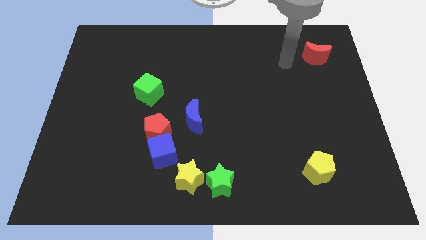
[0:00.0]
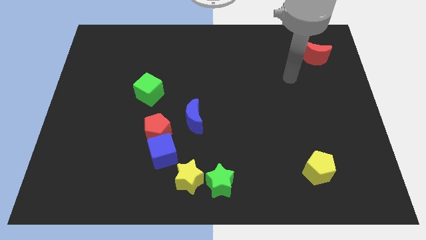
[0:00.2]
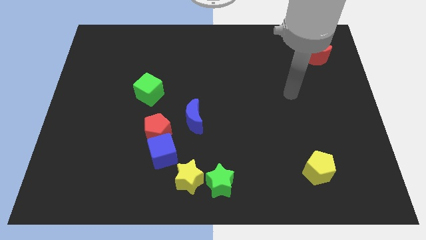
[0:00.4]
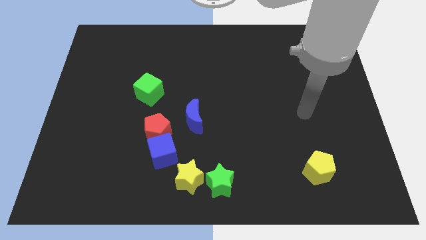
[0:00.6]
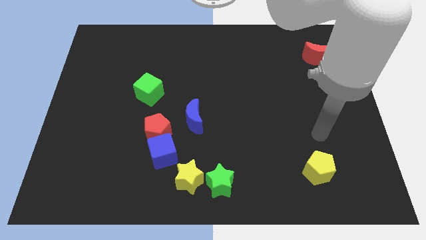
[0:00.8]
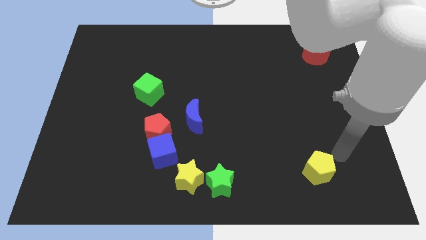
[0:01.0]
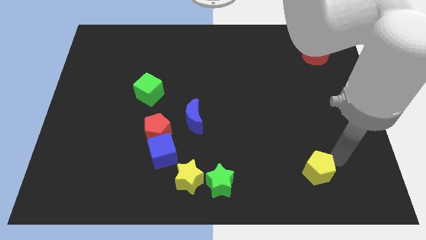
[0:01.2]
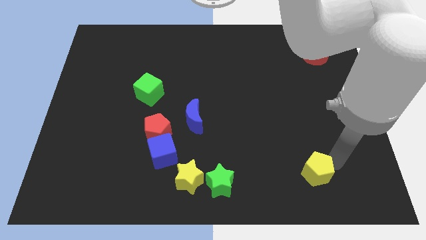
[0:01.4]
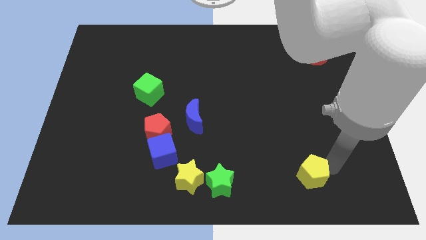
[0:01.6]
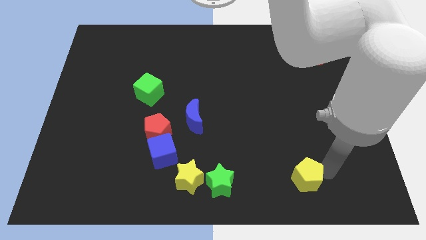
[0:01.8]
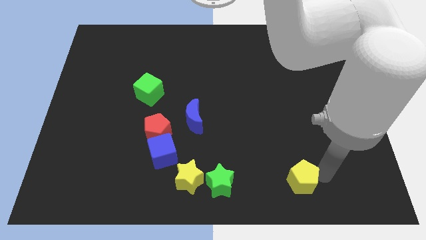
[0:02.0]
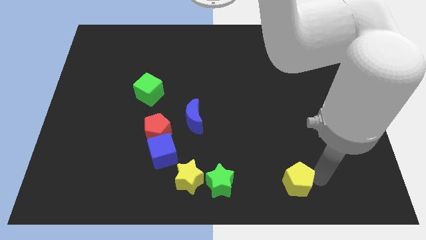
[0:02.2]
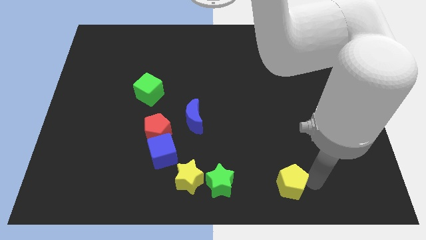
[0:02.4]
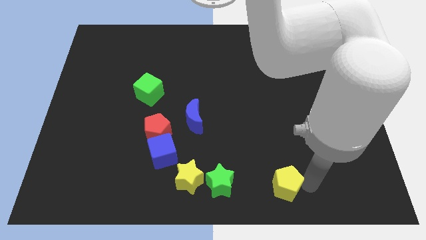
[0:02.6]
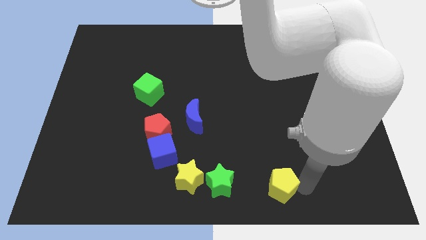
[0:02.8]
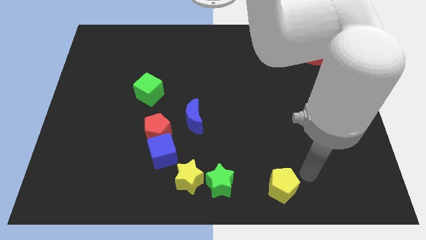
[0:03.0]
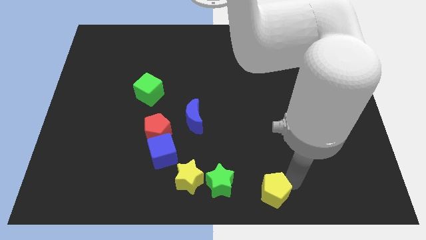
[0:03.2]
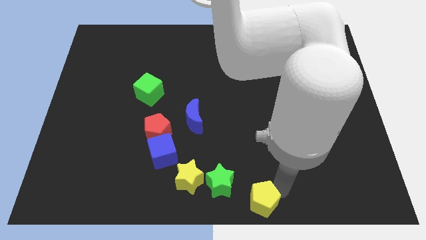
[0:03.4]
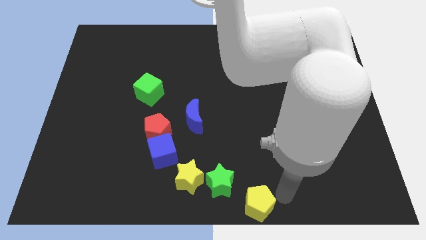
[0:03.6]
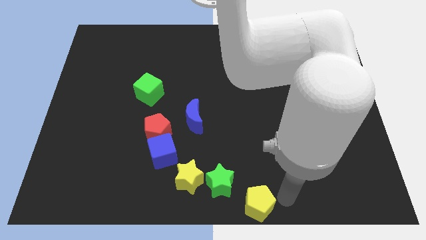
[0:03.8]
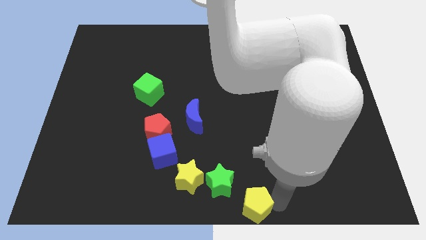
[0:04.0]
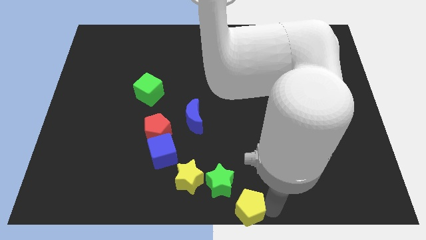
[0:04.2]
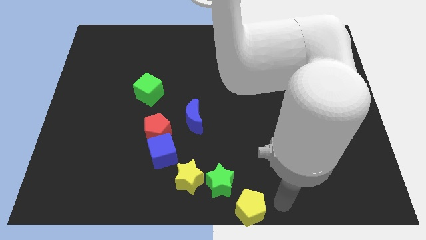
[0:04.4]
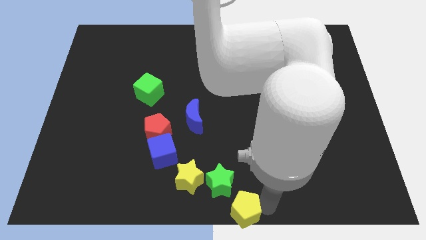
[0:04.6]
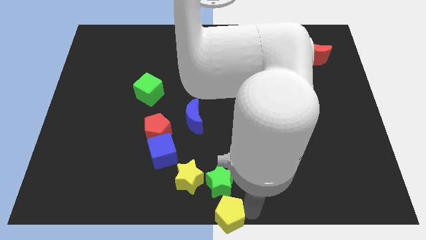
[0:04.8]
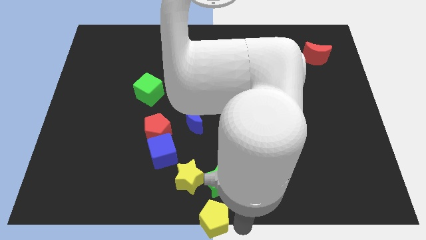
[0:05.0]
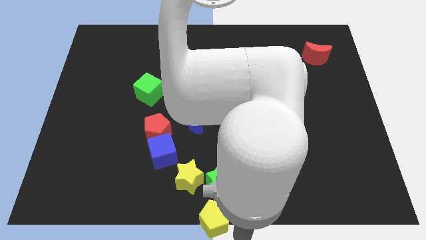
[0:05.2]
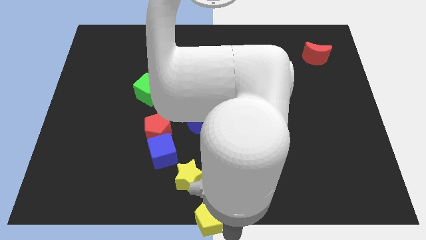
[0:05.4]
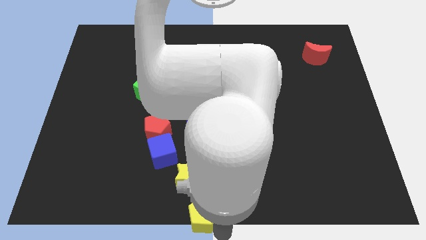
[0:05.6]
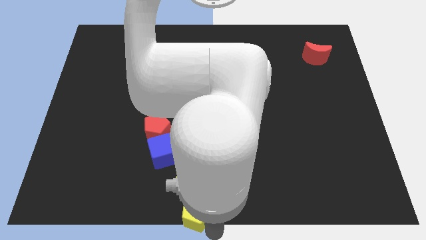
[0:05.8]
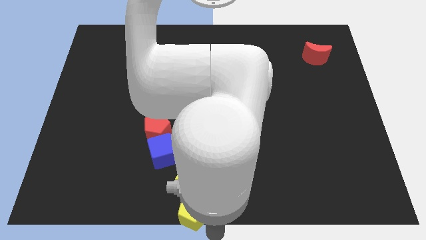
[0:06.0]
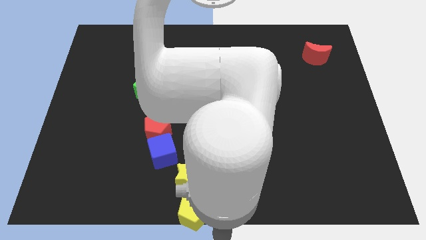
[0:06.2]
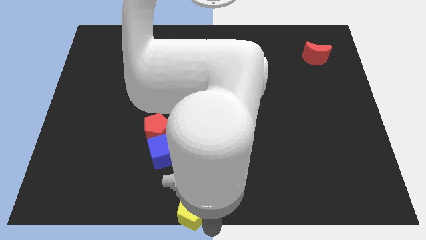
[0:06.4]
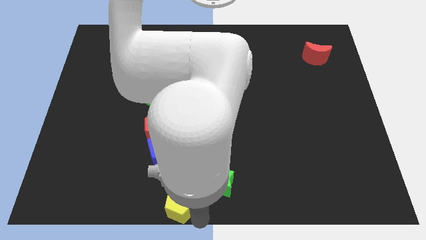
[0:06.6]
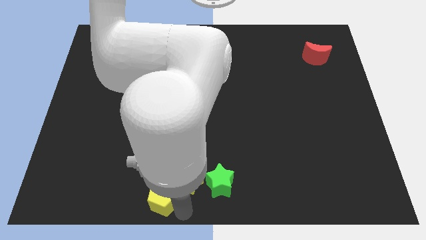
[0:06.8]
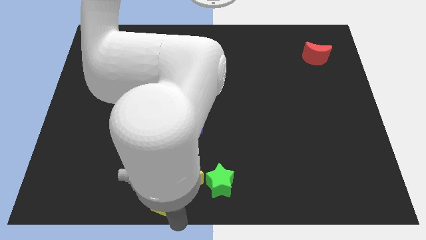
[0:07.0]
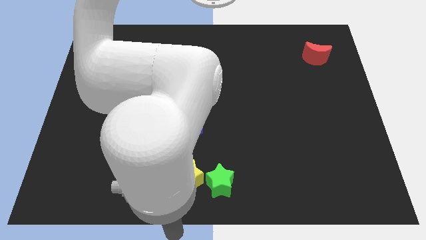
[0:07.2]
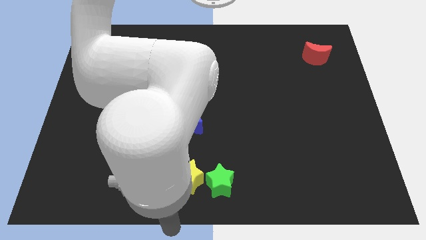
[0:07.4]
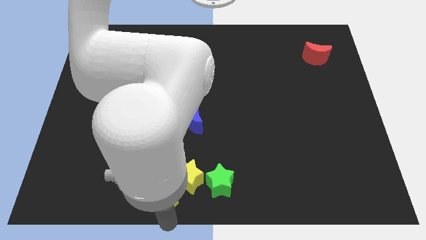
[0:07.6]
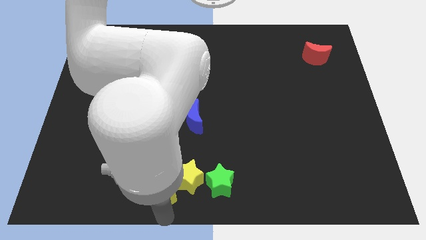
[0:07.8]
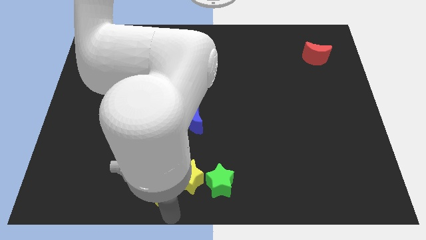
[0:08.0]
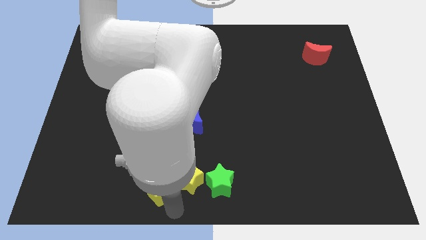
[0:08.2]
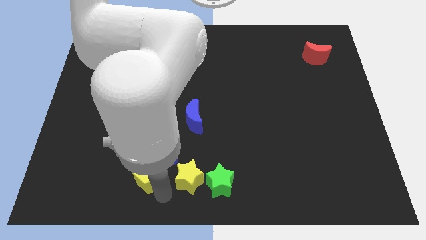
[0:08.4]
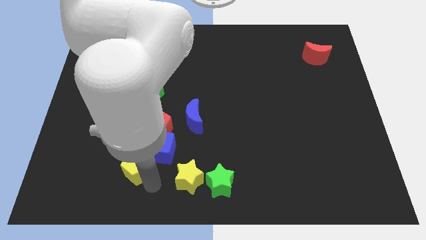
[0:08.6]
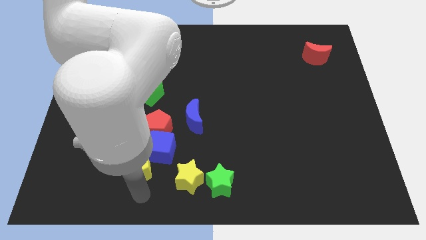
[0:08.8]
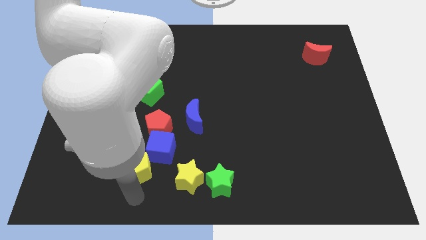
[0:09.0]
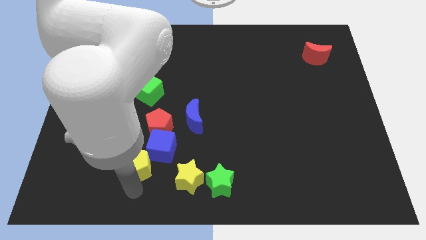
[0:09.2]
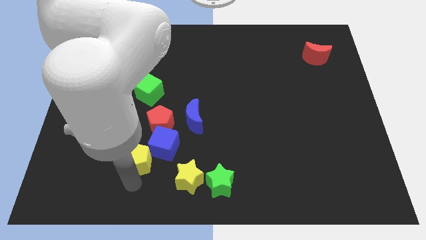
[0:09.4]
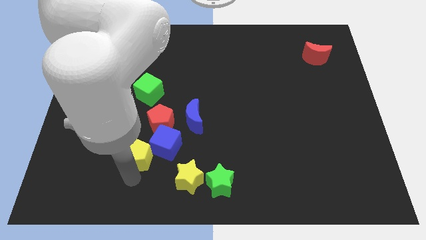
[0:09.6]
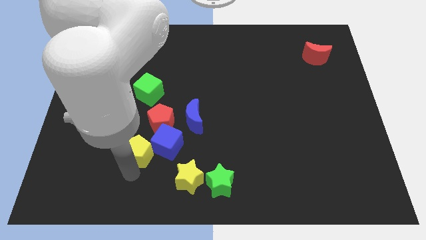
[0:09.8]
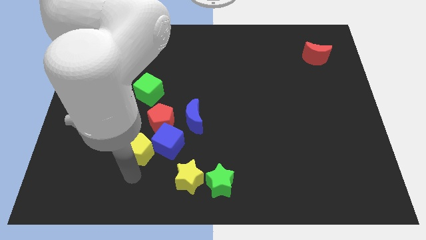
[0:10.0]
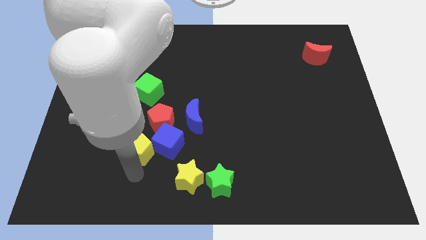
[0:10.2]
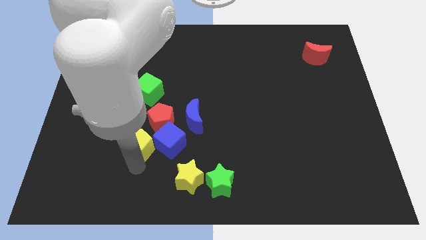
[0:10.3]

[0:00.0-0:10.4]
move the yellow pentagon to the bottom side of the green cube

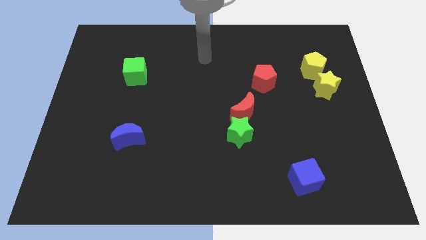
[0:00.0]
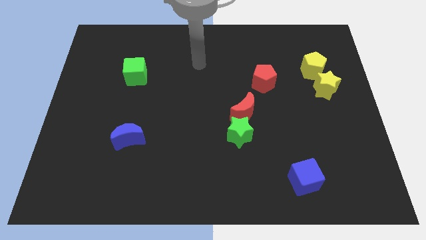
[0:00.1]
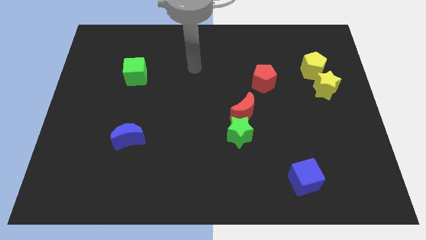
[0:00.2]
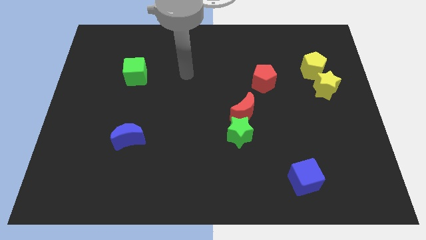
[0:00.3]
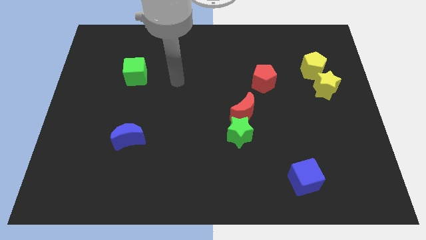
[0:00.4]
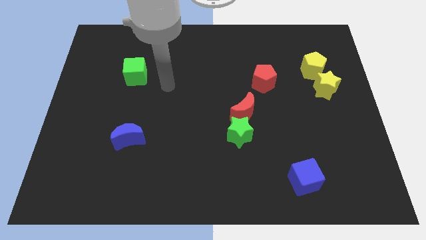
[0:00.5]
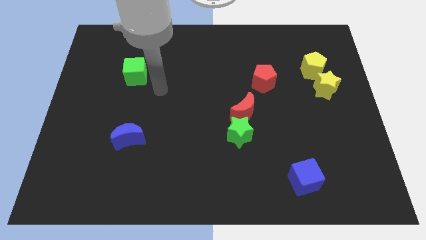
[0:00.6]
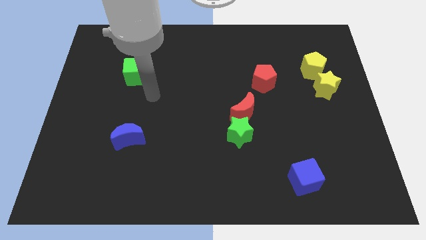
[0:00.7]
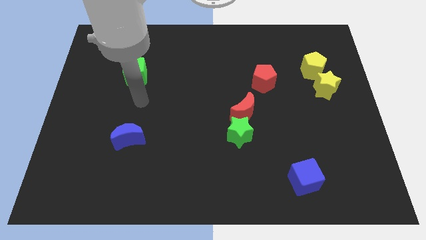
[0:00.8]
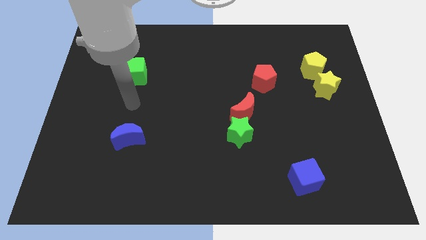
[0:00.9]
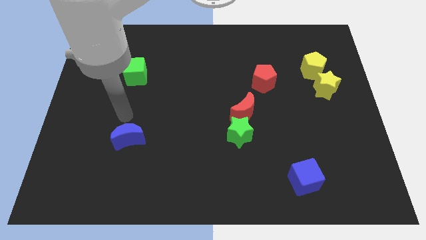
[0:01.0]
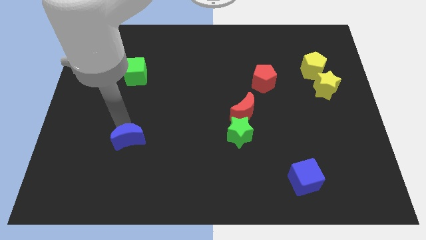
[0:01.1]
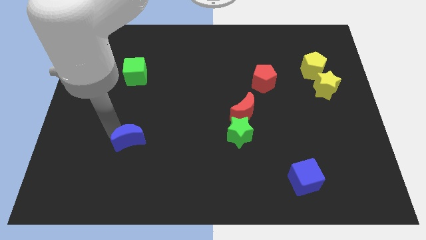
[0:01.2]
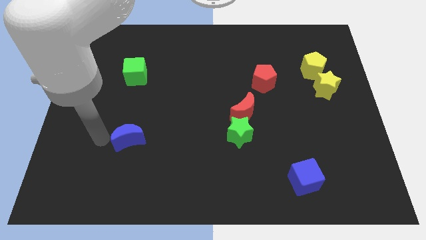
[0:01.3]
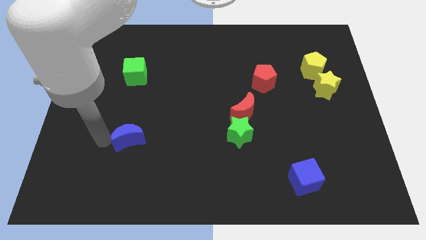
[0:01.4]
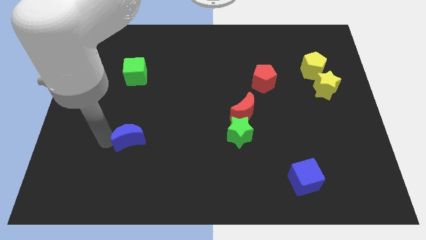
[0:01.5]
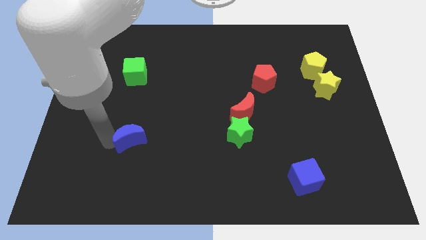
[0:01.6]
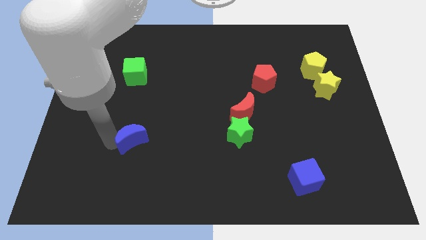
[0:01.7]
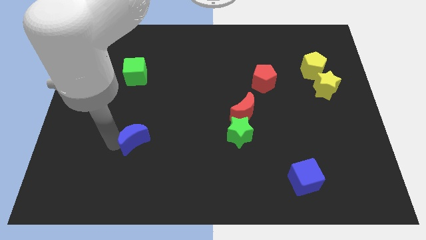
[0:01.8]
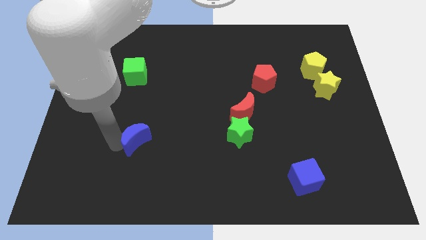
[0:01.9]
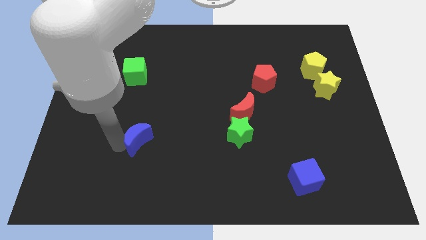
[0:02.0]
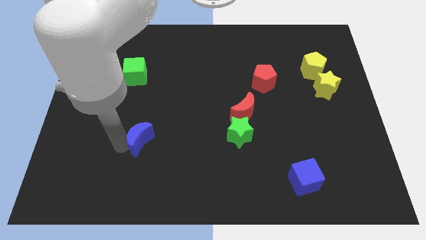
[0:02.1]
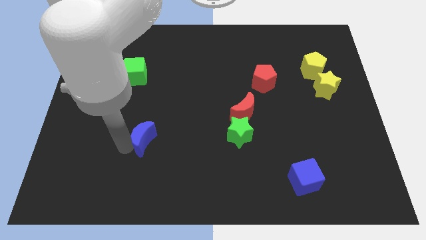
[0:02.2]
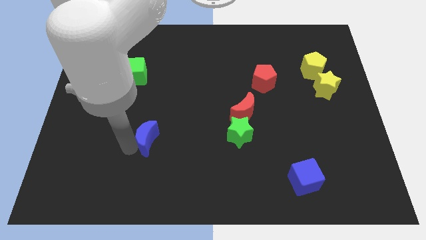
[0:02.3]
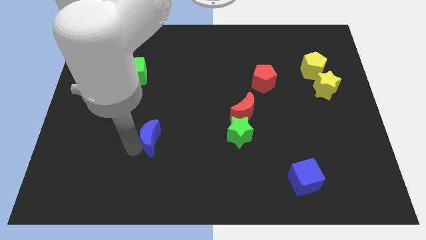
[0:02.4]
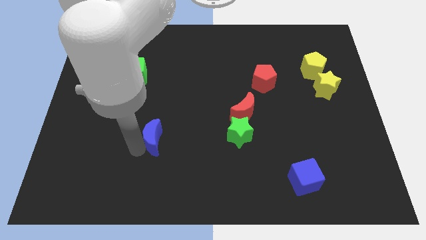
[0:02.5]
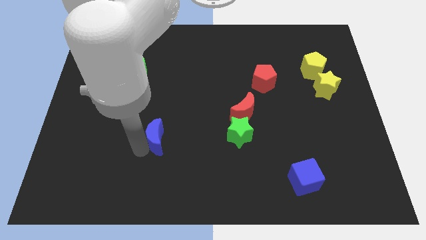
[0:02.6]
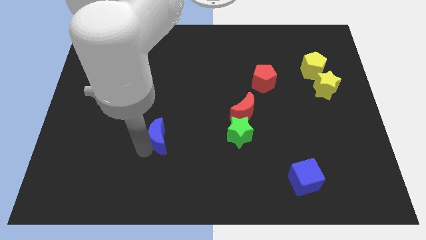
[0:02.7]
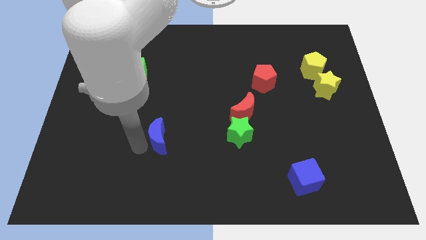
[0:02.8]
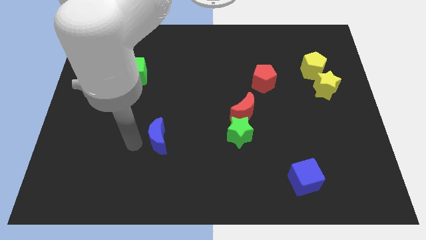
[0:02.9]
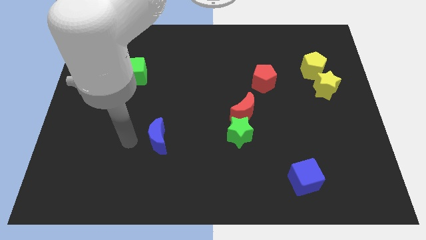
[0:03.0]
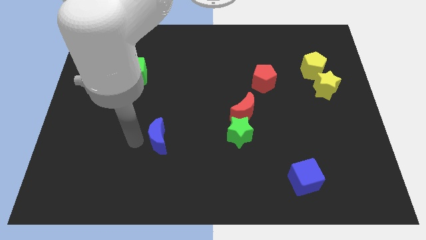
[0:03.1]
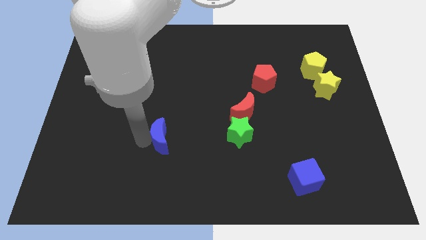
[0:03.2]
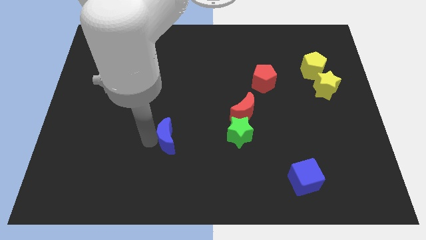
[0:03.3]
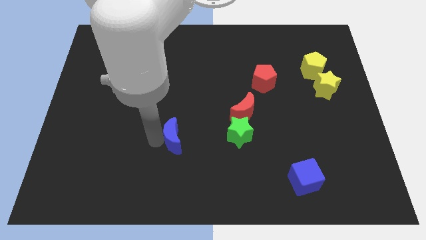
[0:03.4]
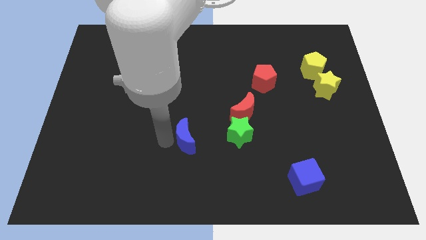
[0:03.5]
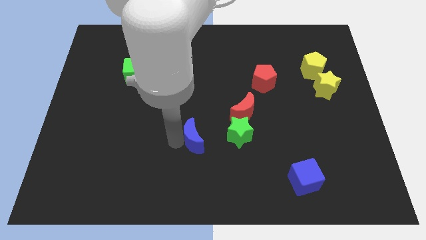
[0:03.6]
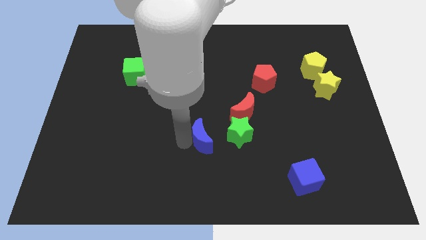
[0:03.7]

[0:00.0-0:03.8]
move the blue moon diagonally down and to the left of the red moon
